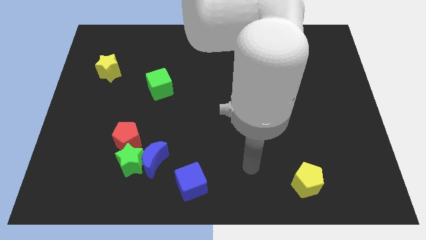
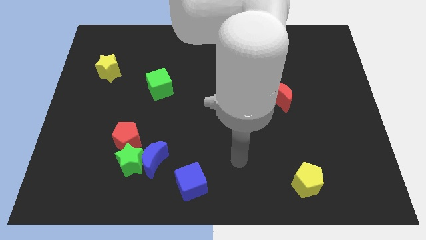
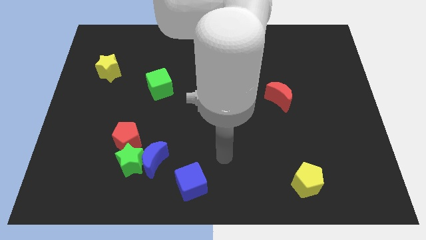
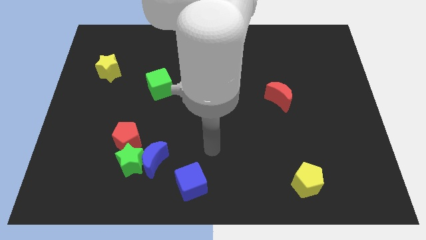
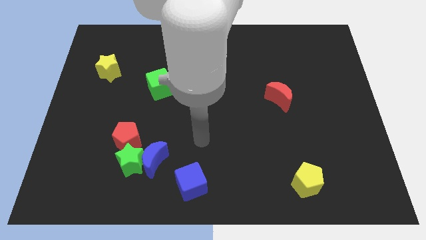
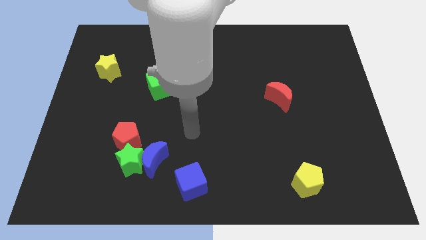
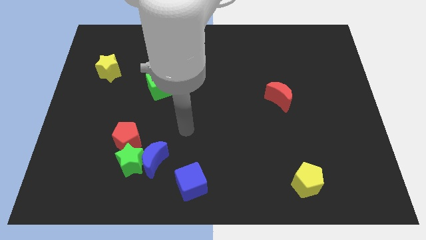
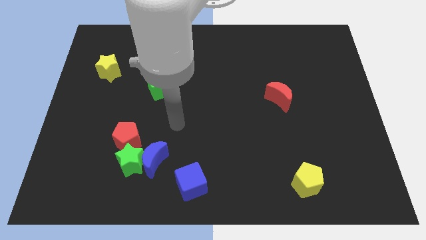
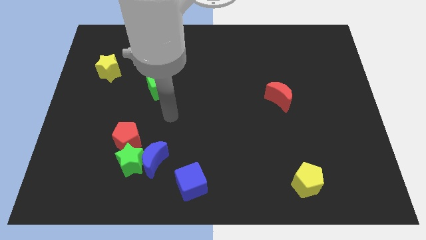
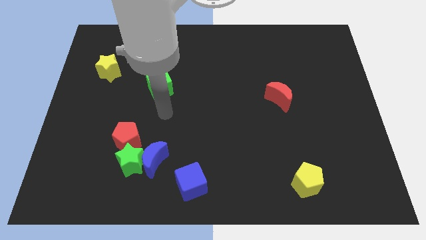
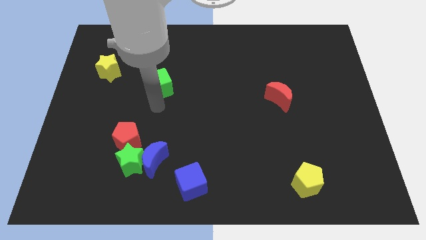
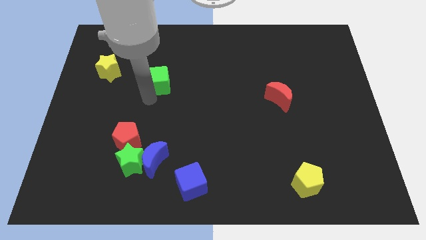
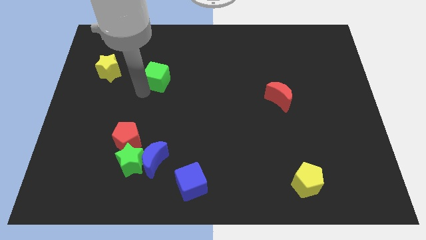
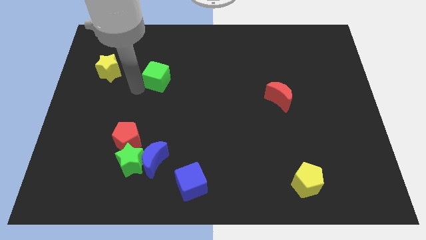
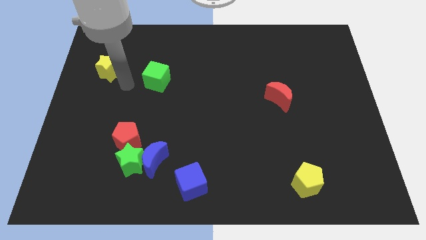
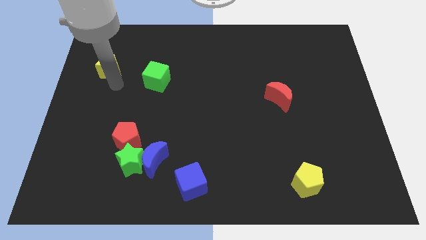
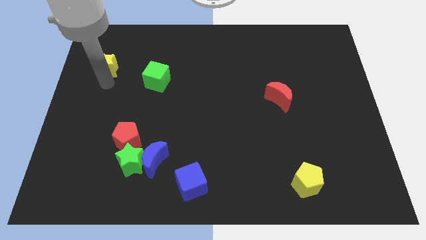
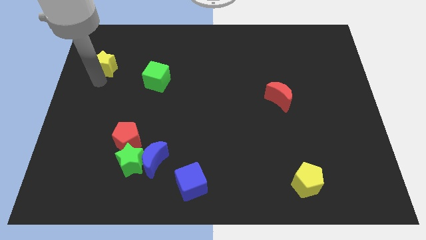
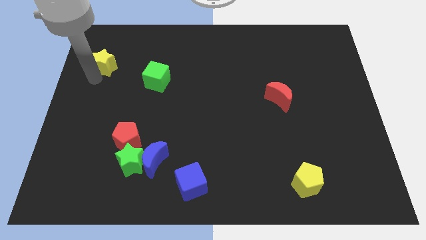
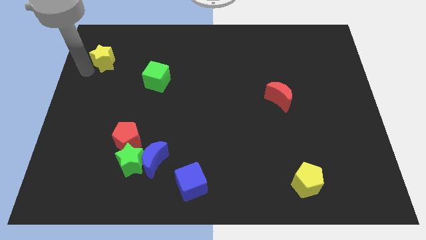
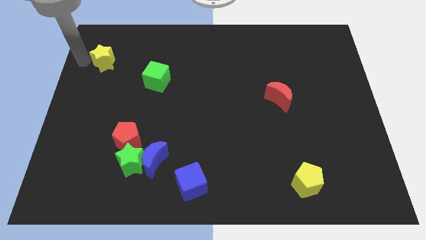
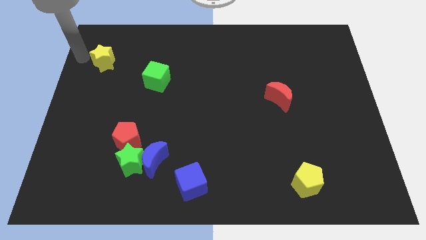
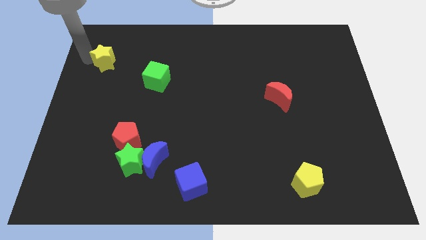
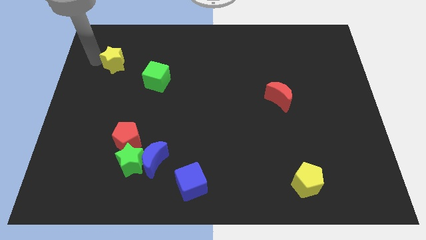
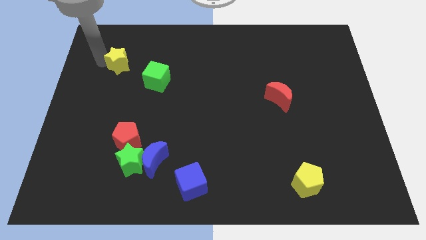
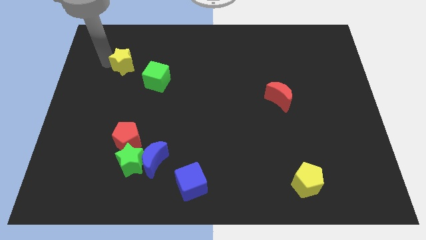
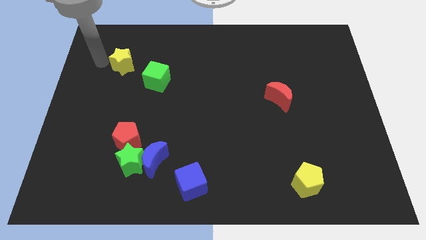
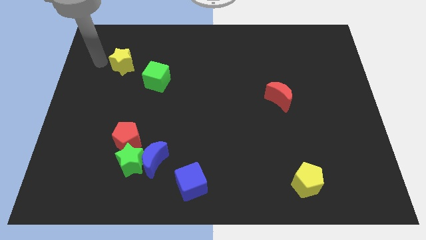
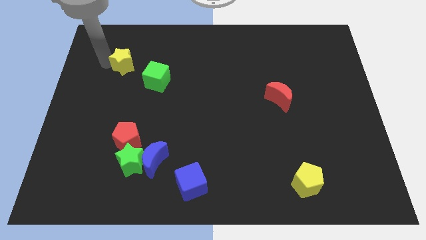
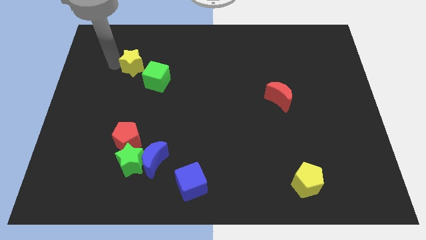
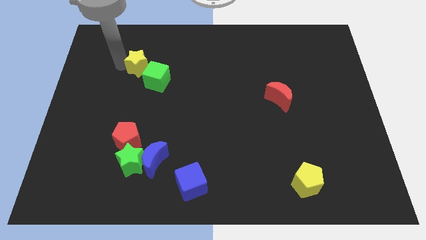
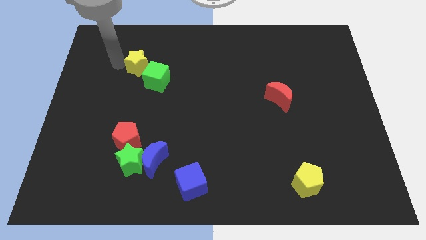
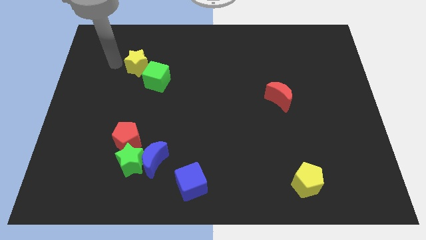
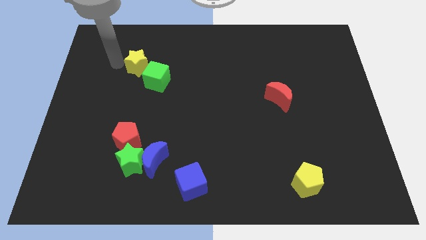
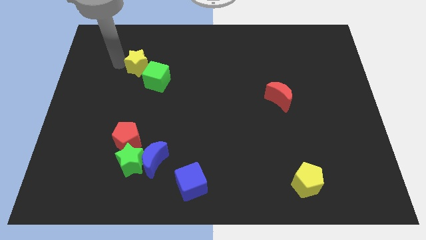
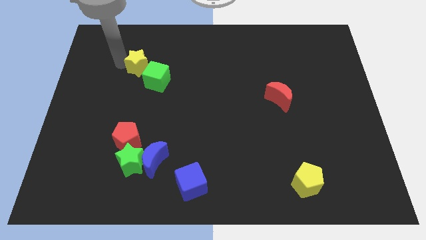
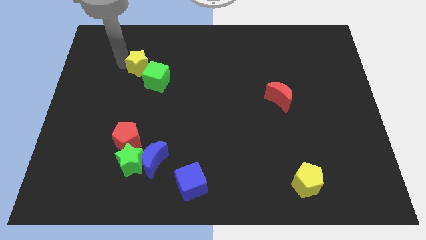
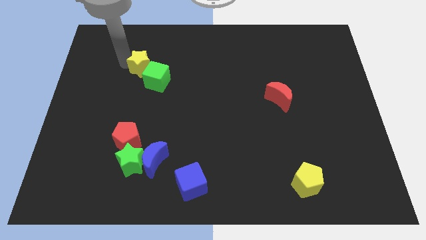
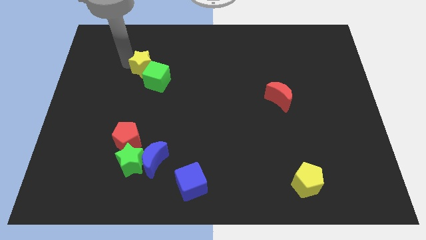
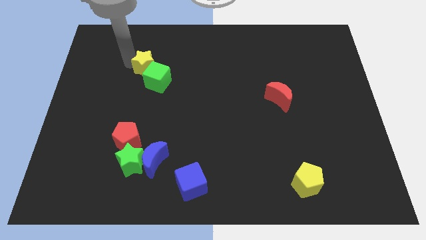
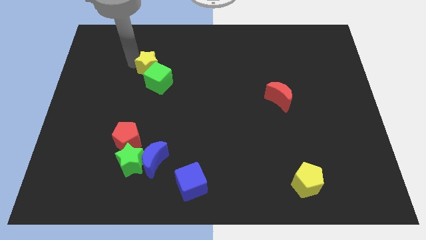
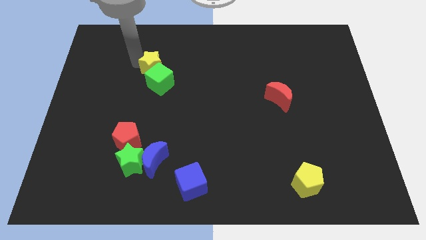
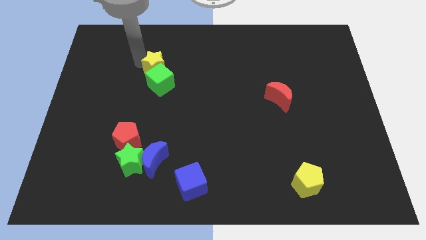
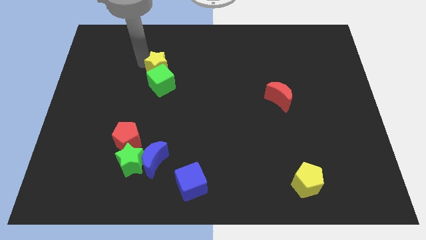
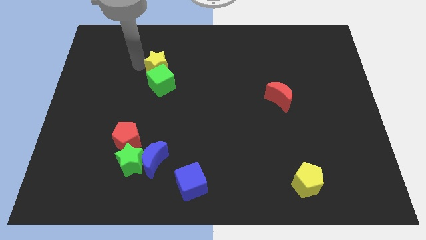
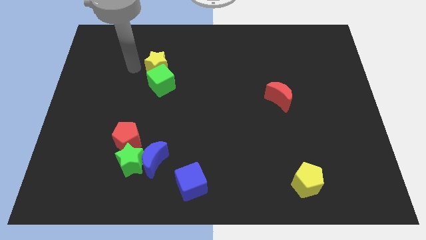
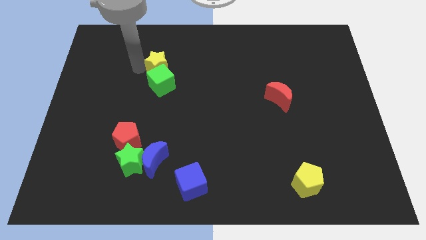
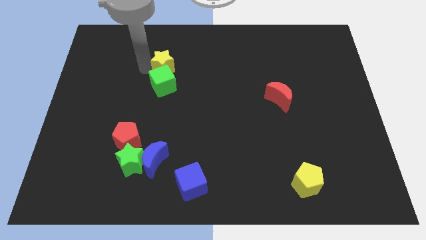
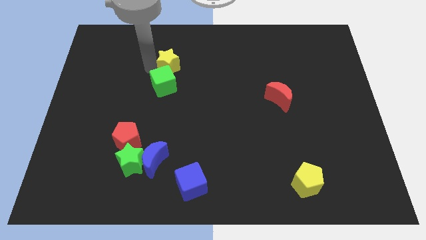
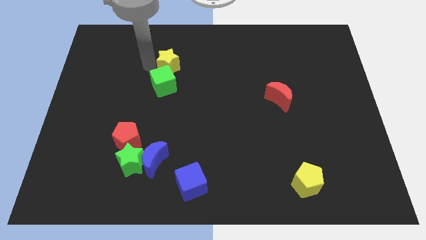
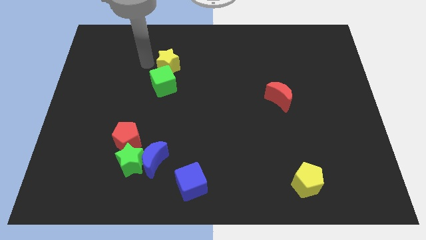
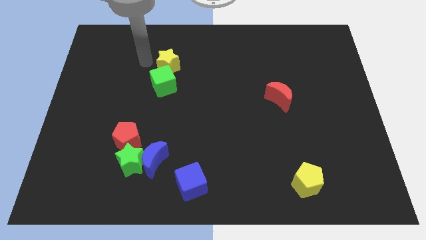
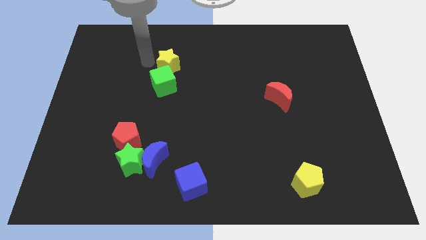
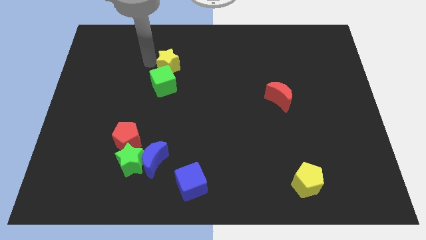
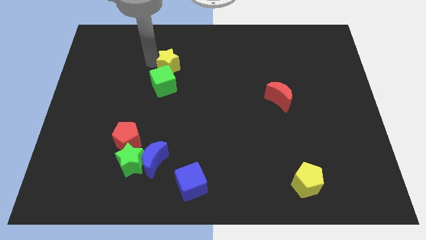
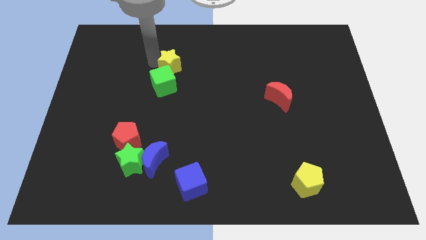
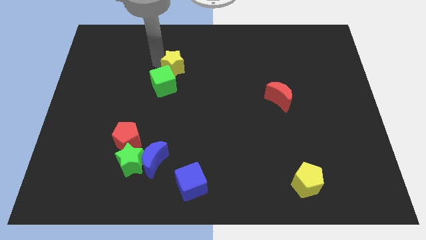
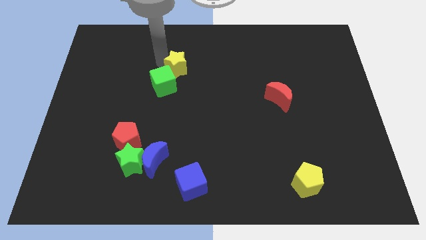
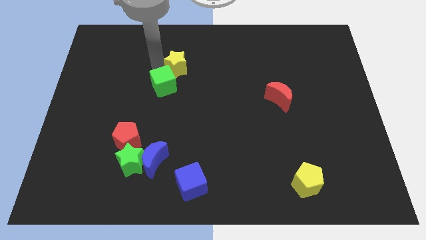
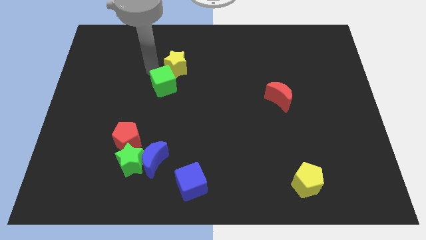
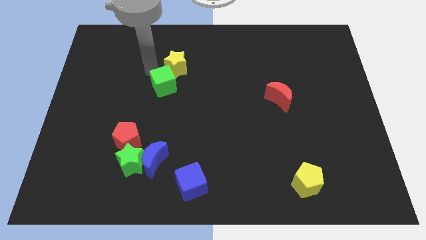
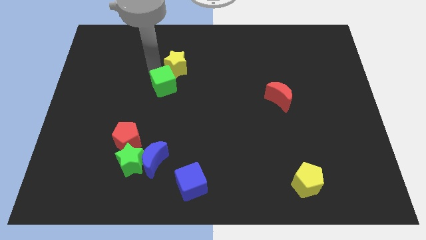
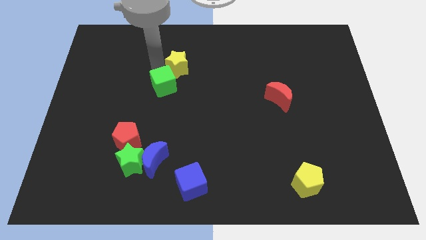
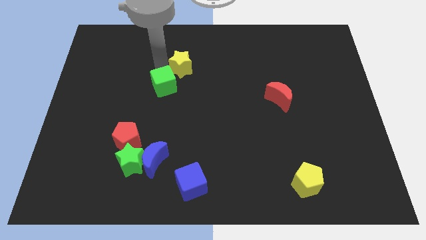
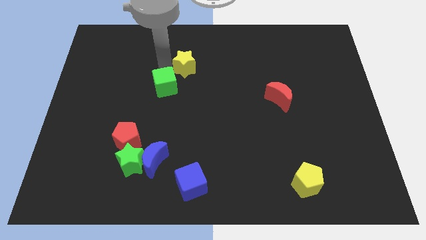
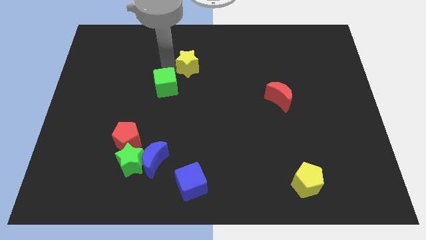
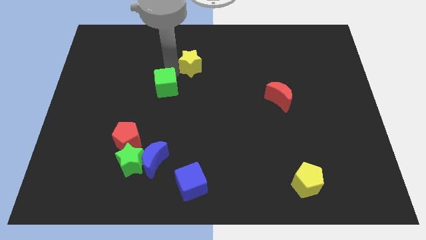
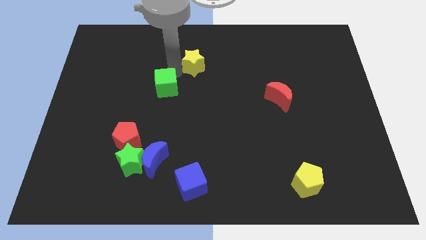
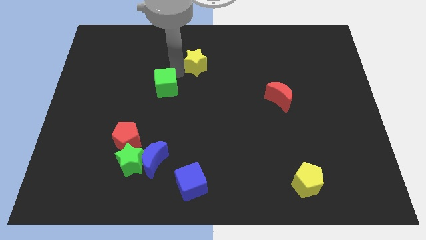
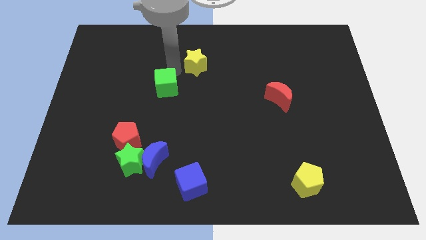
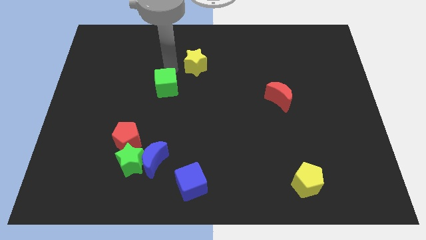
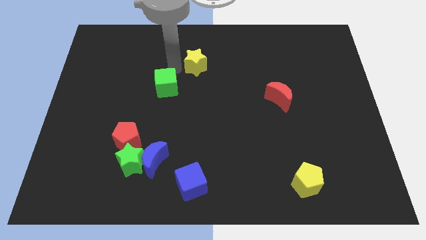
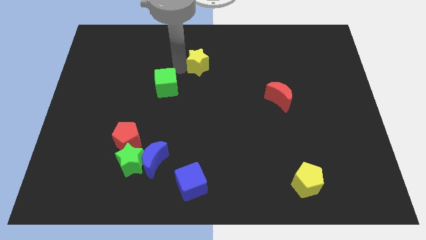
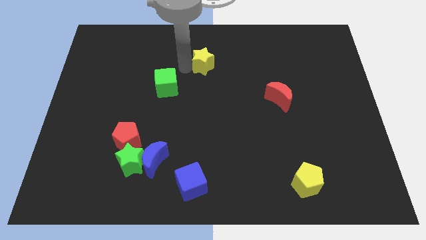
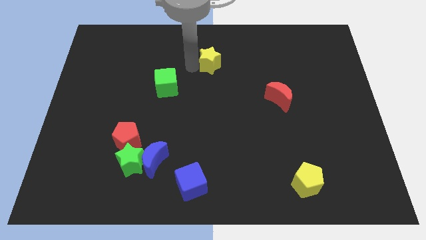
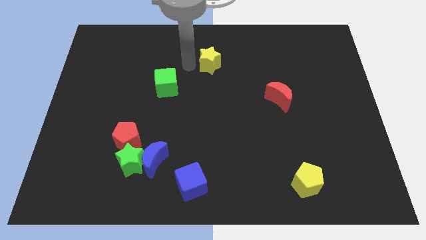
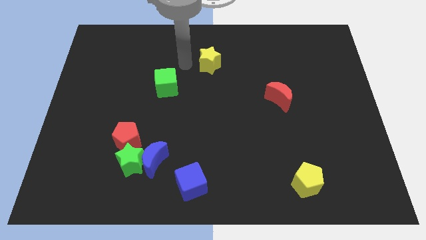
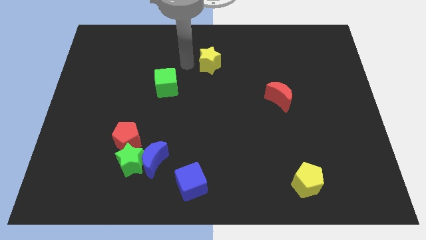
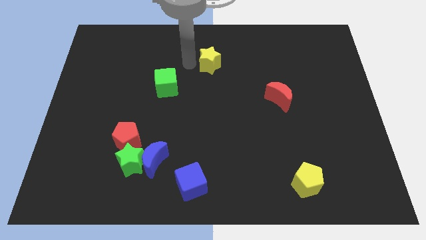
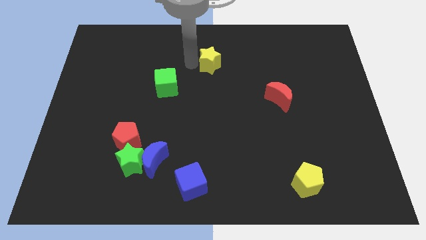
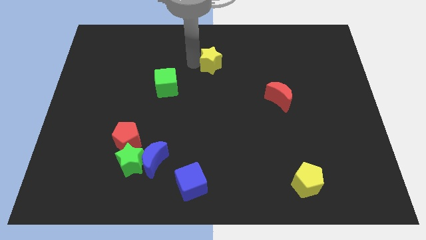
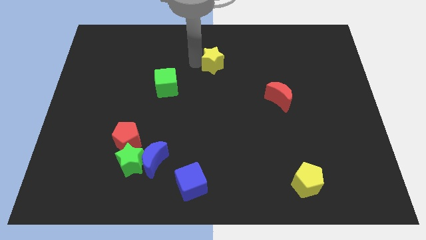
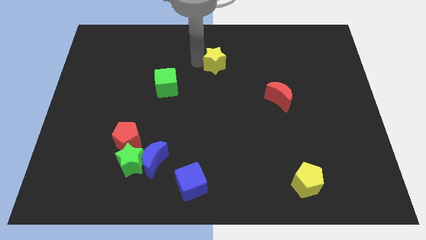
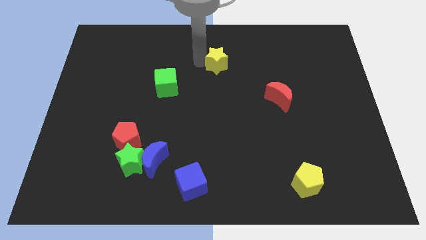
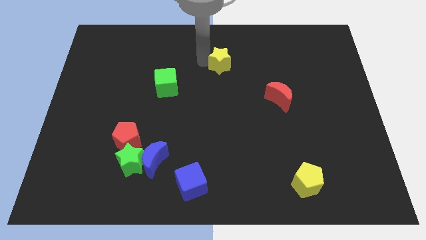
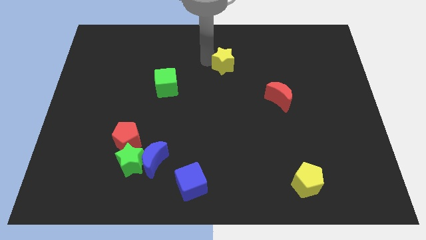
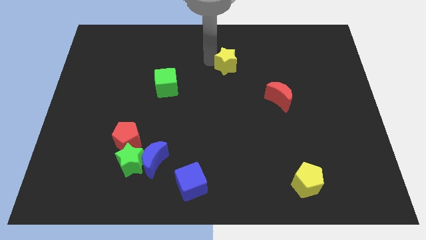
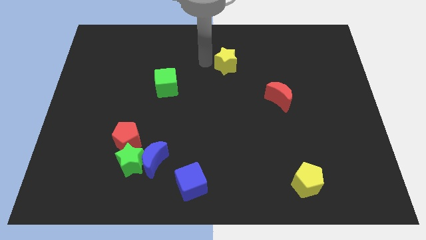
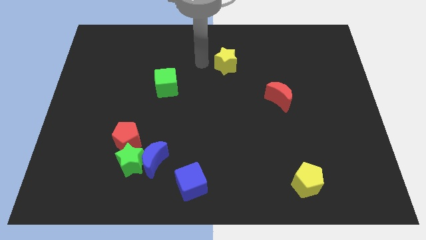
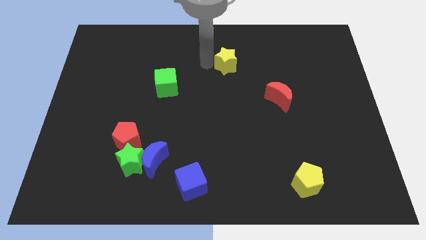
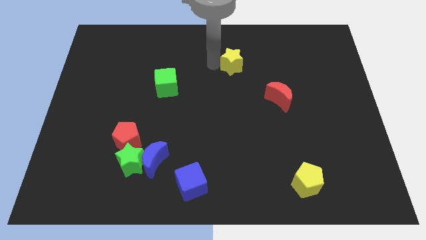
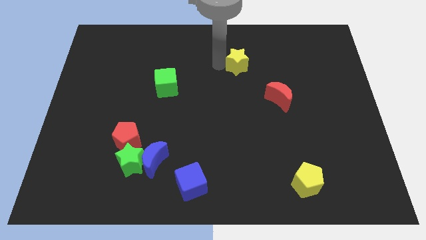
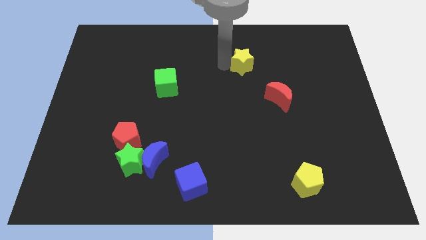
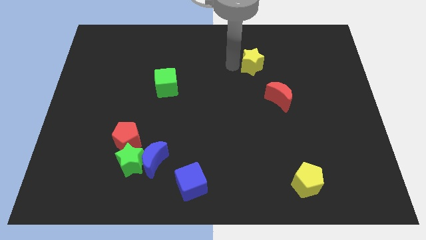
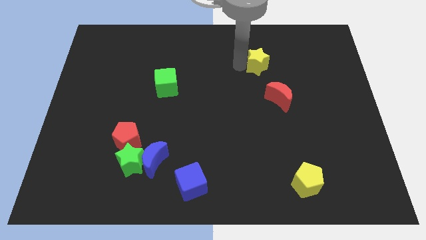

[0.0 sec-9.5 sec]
move the yellow star to the top side of the red moon
